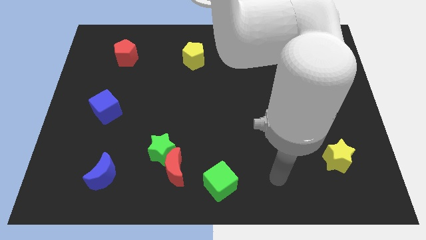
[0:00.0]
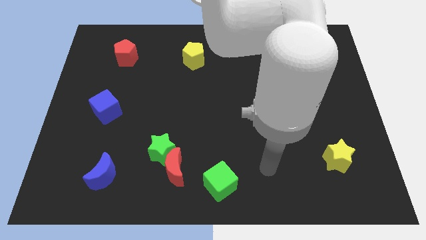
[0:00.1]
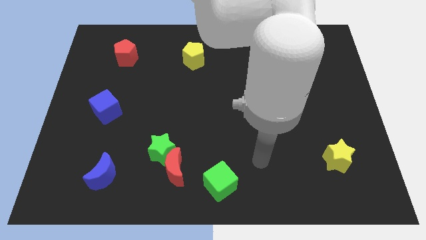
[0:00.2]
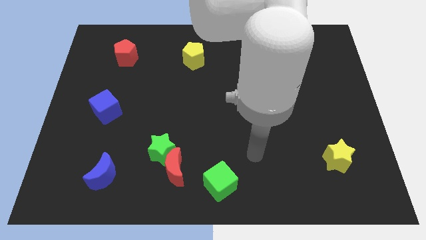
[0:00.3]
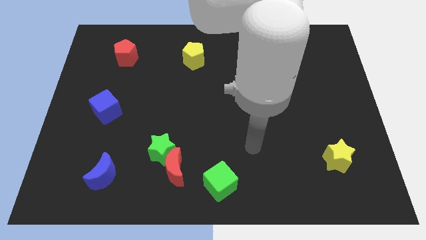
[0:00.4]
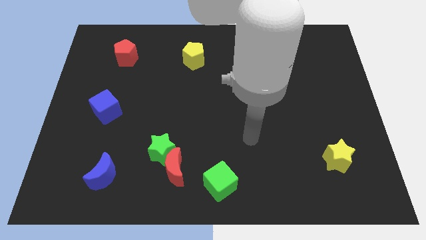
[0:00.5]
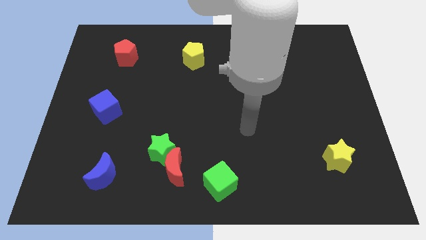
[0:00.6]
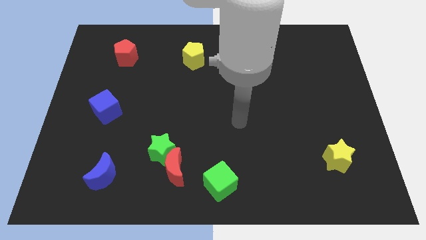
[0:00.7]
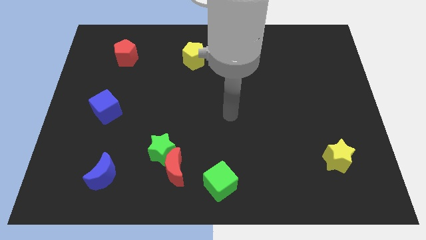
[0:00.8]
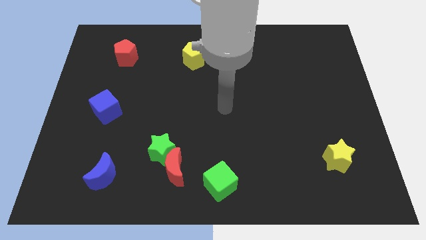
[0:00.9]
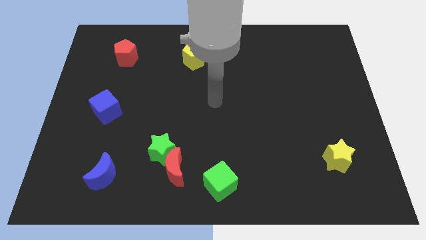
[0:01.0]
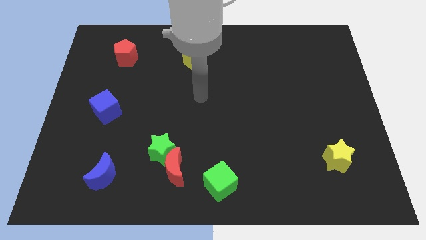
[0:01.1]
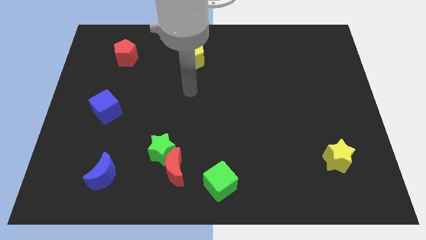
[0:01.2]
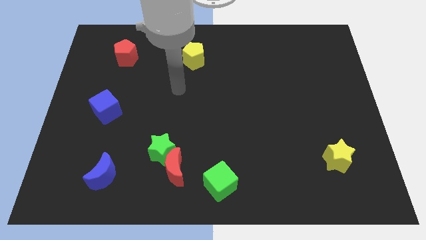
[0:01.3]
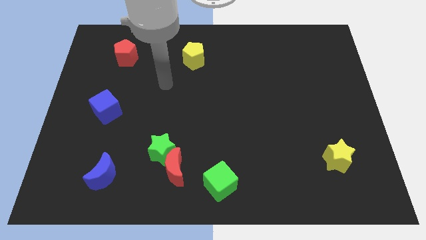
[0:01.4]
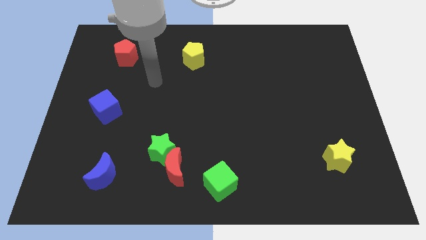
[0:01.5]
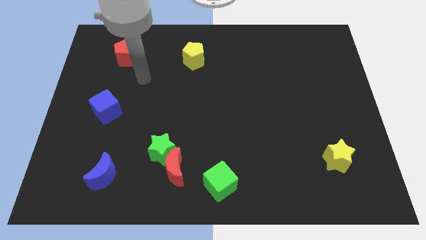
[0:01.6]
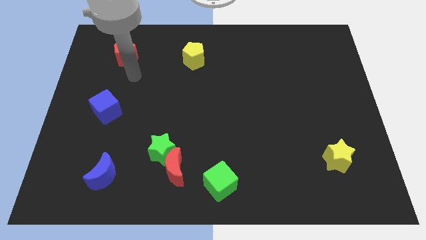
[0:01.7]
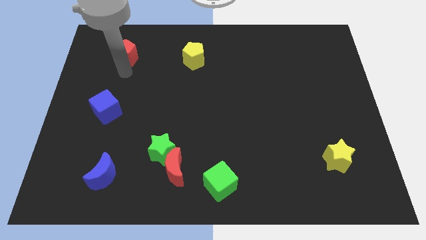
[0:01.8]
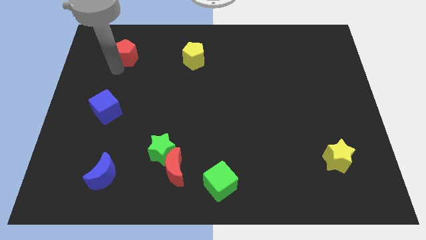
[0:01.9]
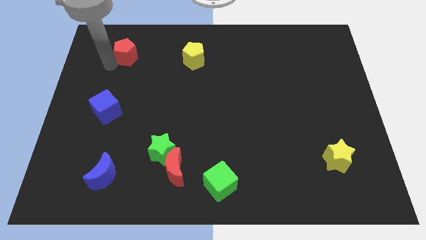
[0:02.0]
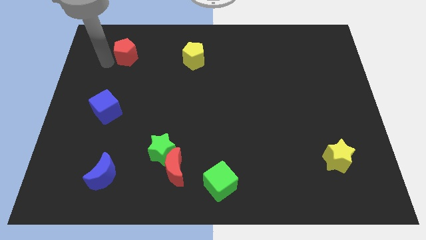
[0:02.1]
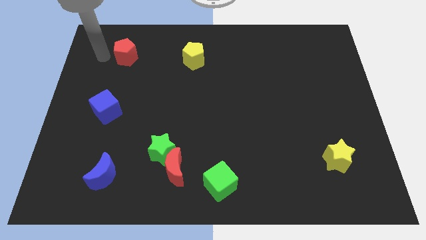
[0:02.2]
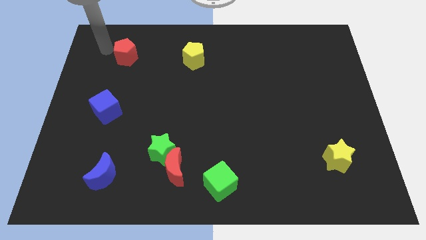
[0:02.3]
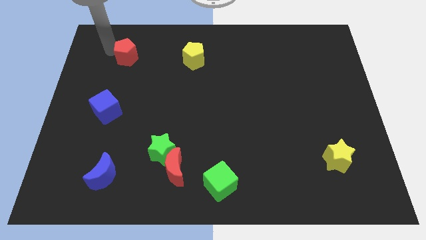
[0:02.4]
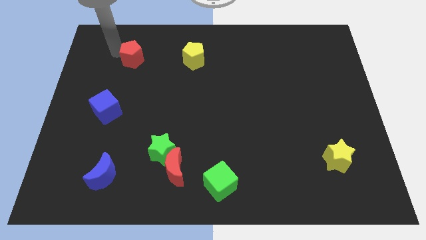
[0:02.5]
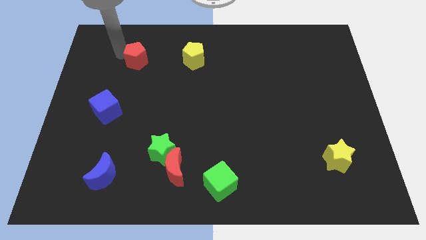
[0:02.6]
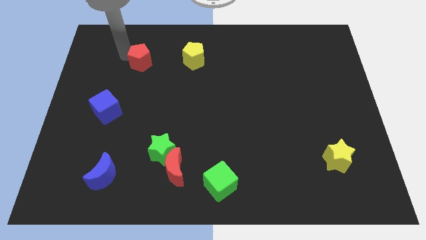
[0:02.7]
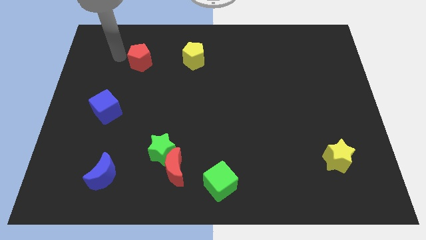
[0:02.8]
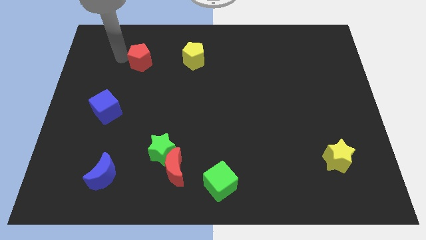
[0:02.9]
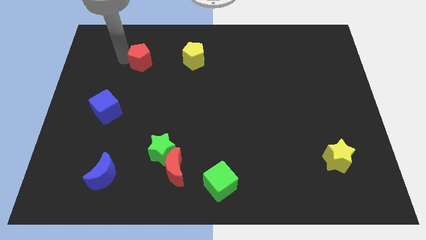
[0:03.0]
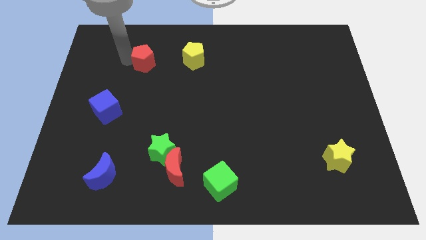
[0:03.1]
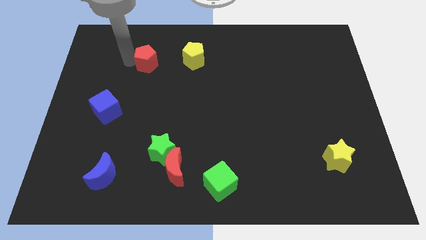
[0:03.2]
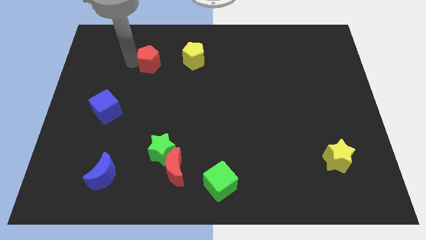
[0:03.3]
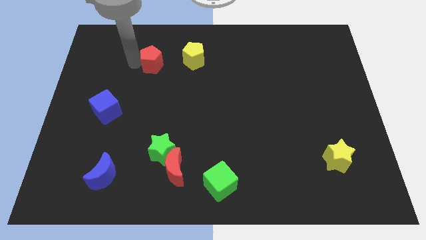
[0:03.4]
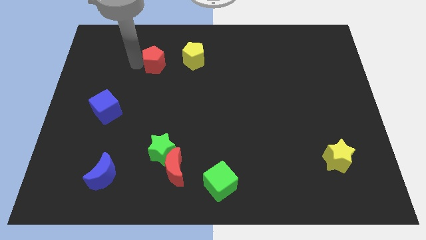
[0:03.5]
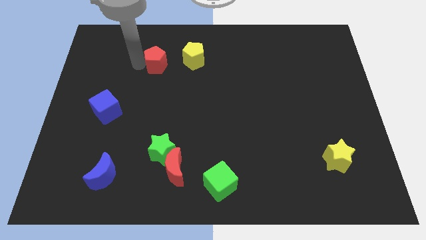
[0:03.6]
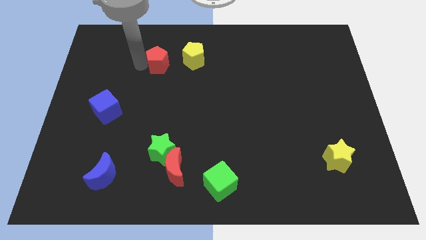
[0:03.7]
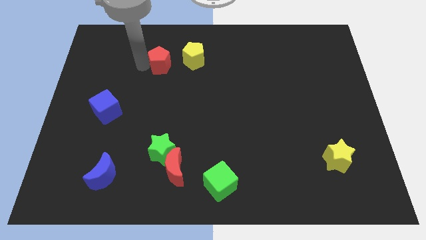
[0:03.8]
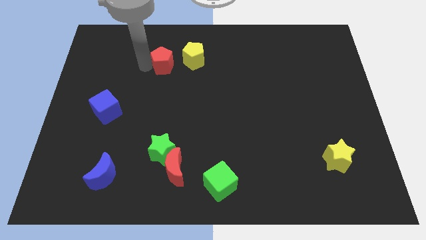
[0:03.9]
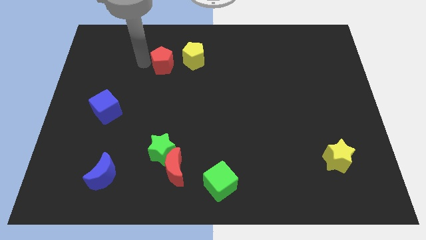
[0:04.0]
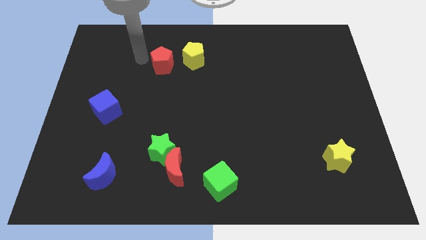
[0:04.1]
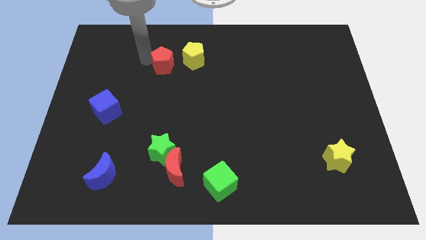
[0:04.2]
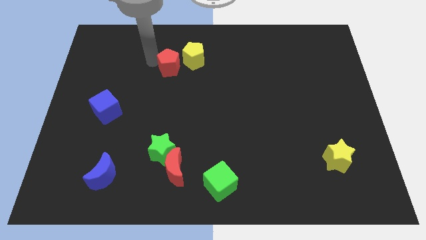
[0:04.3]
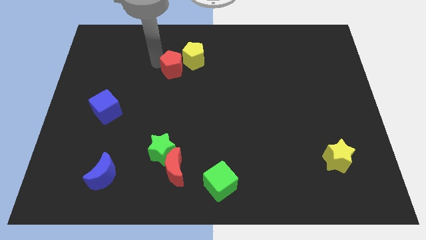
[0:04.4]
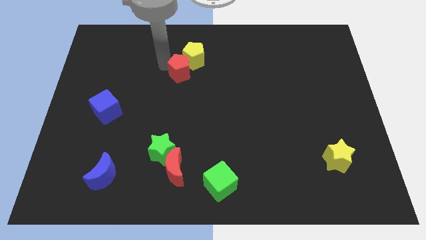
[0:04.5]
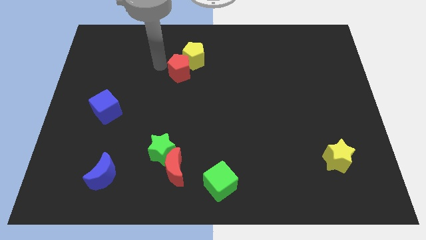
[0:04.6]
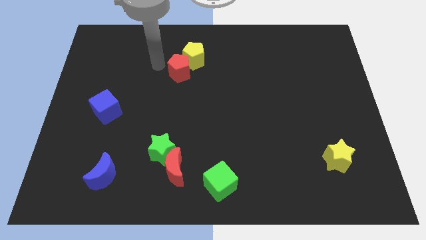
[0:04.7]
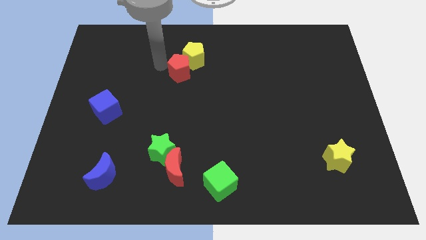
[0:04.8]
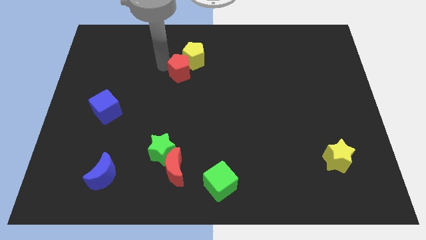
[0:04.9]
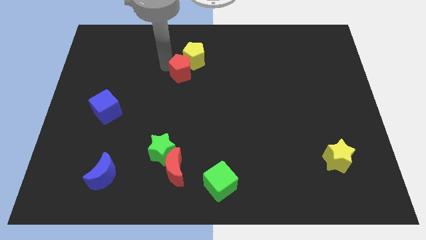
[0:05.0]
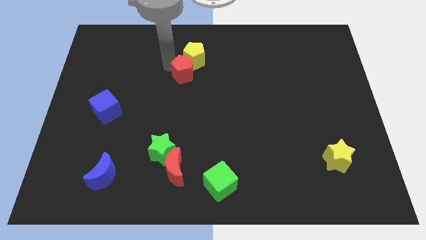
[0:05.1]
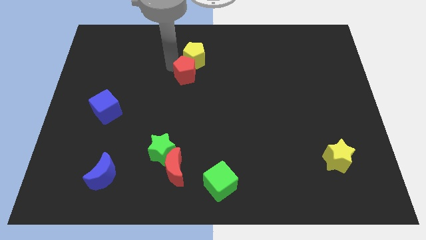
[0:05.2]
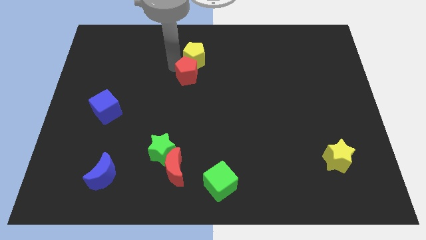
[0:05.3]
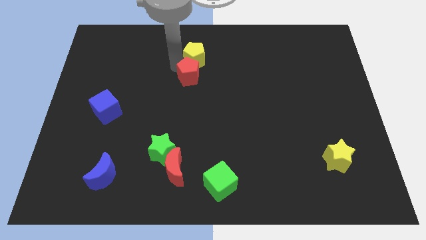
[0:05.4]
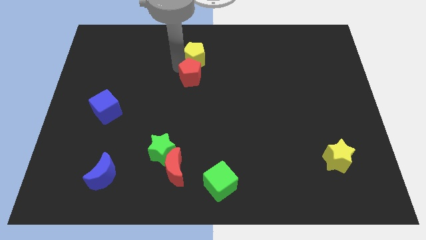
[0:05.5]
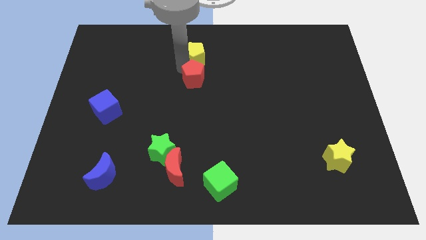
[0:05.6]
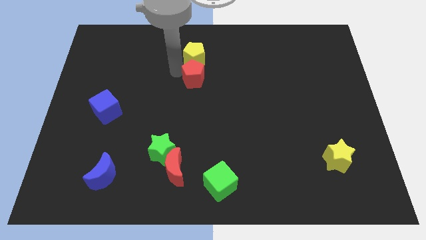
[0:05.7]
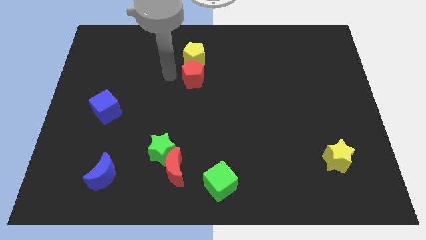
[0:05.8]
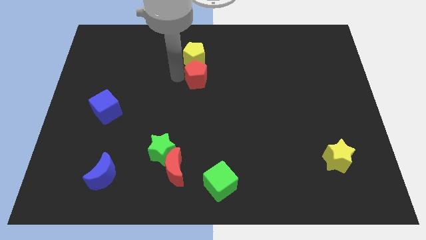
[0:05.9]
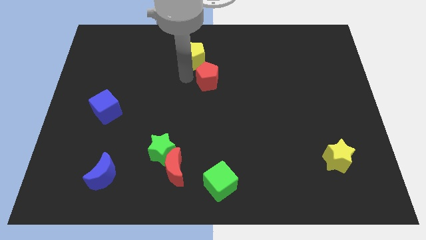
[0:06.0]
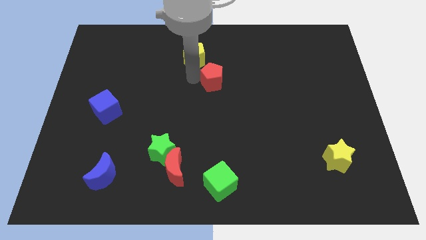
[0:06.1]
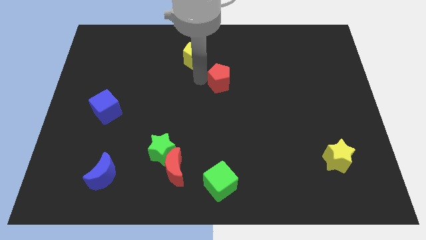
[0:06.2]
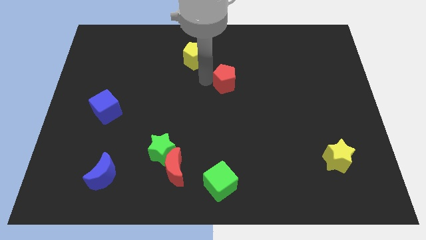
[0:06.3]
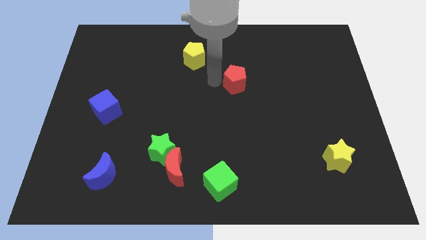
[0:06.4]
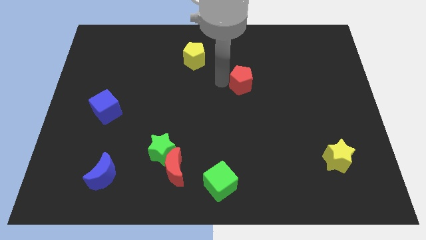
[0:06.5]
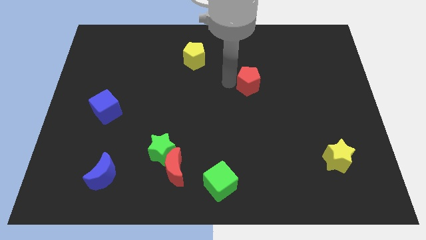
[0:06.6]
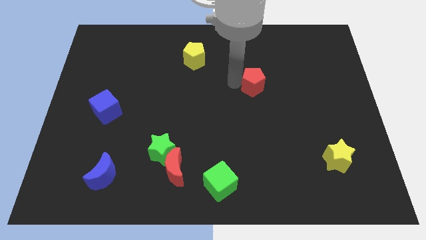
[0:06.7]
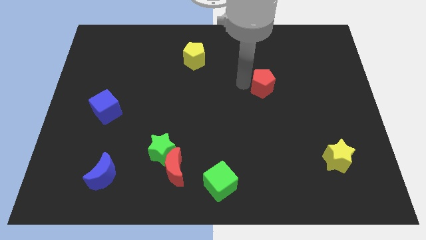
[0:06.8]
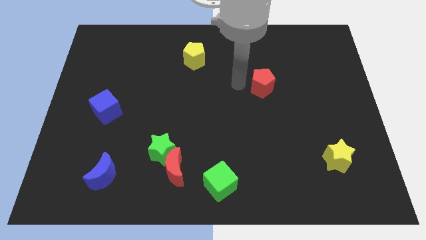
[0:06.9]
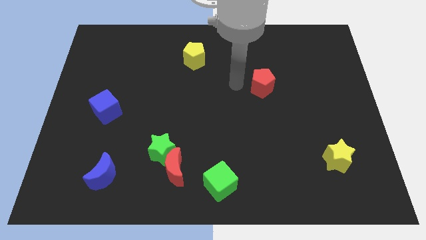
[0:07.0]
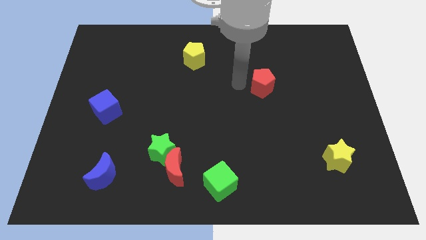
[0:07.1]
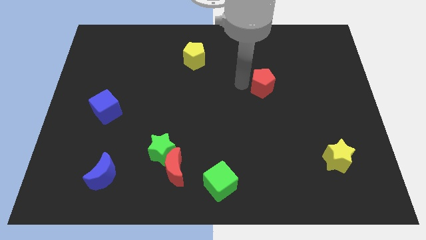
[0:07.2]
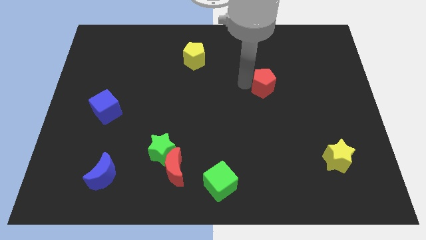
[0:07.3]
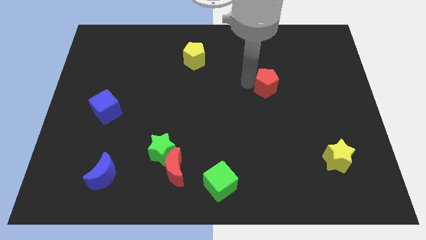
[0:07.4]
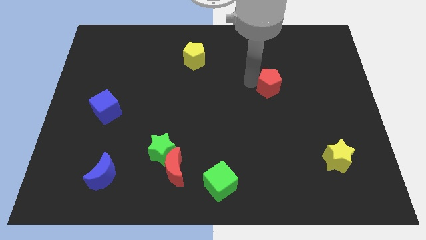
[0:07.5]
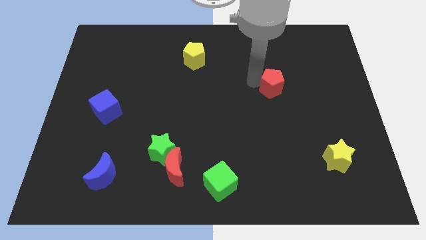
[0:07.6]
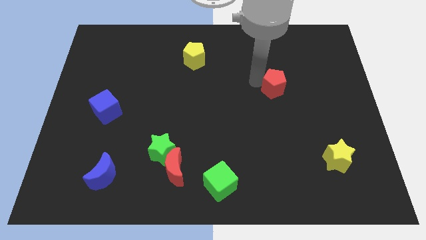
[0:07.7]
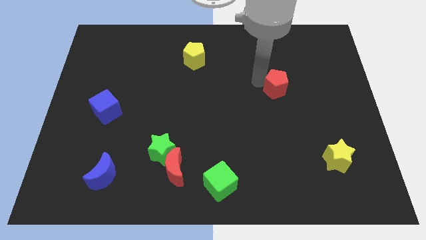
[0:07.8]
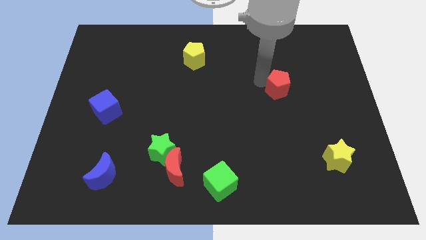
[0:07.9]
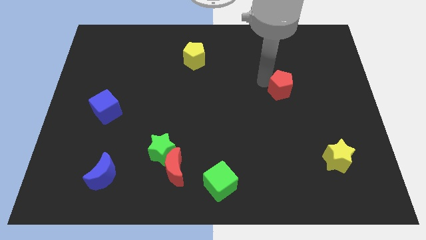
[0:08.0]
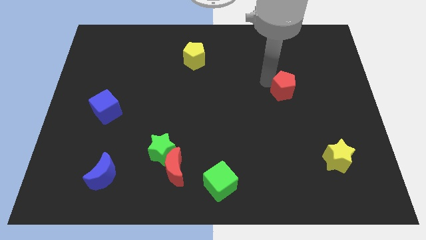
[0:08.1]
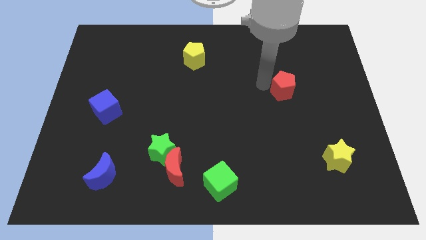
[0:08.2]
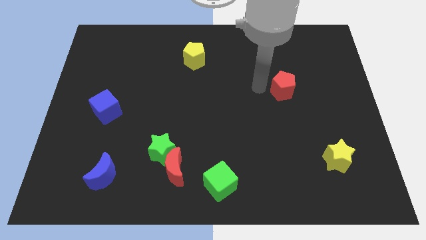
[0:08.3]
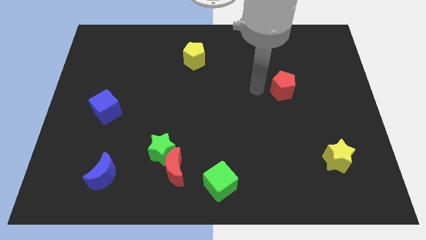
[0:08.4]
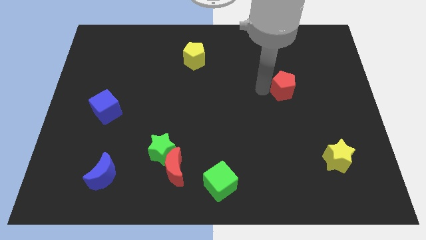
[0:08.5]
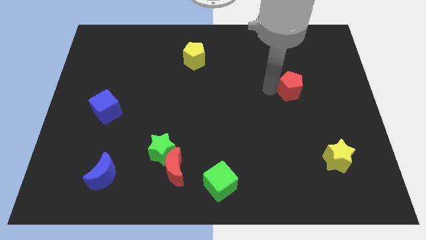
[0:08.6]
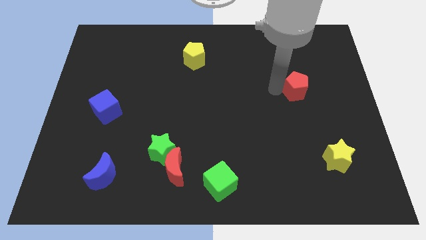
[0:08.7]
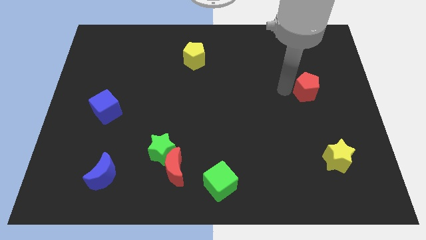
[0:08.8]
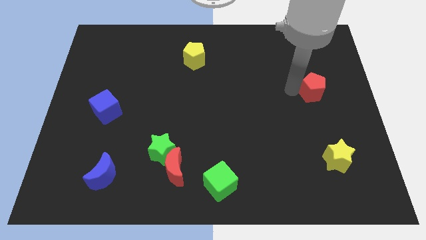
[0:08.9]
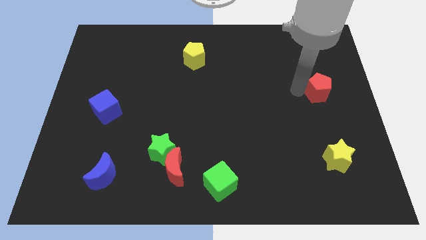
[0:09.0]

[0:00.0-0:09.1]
move the red pentagon to the right side of the board
